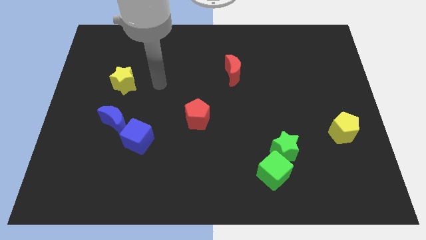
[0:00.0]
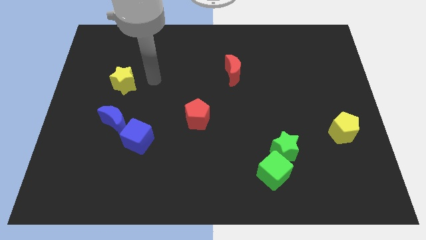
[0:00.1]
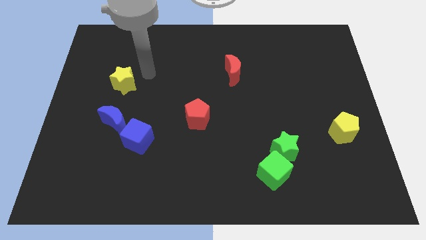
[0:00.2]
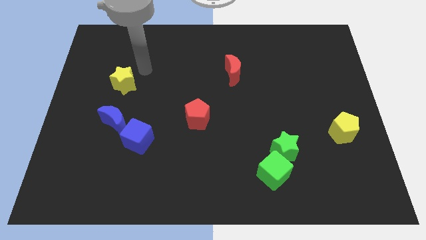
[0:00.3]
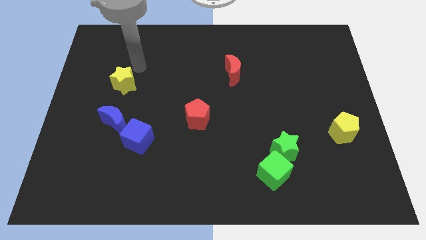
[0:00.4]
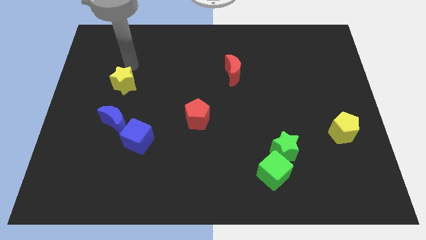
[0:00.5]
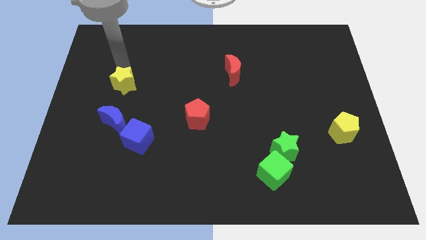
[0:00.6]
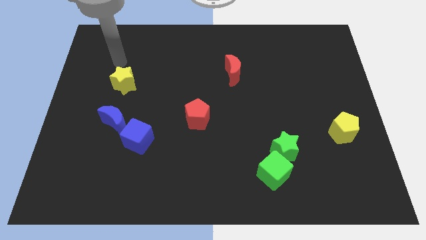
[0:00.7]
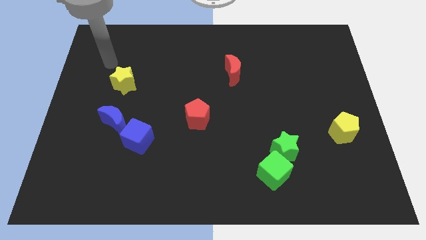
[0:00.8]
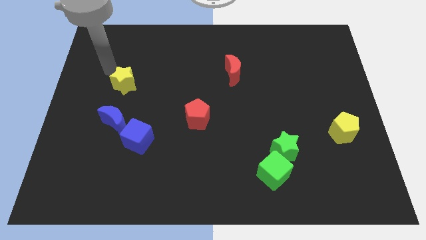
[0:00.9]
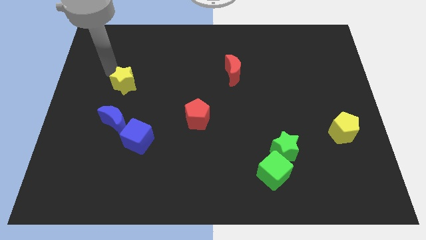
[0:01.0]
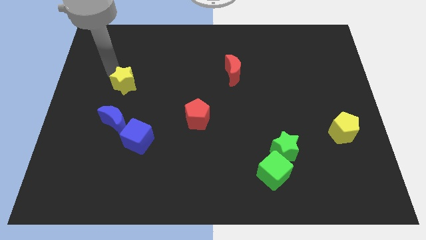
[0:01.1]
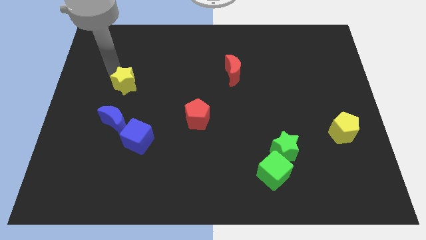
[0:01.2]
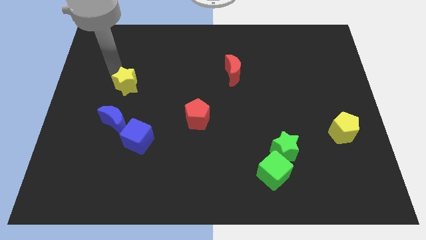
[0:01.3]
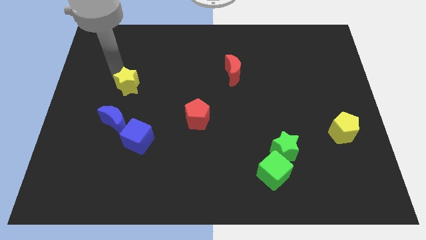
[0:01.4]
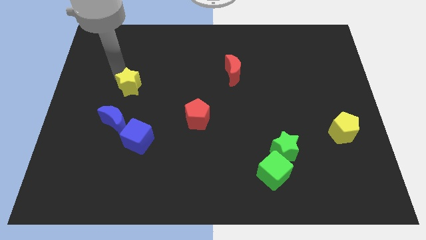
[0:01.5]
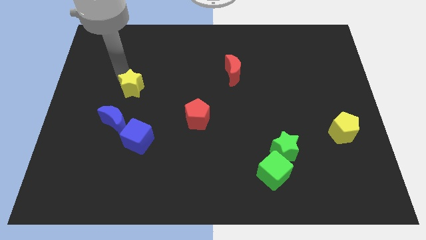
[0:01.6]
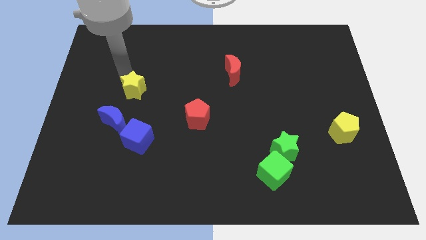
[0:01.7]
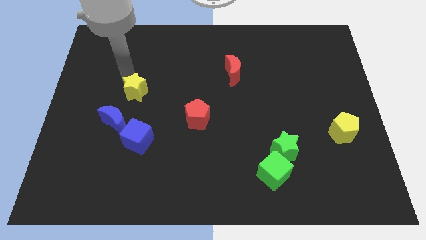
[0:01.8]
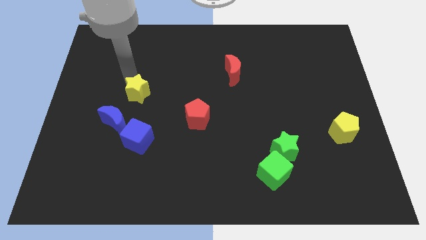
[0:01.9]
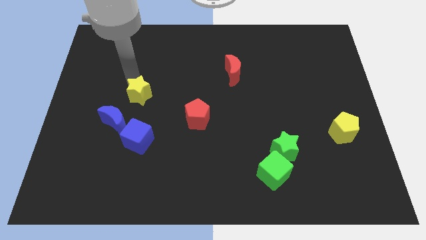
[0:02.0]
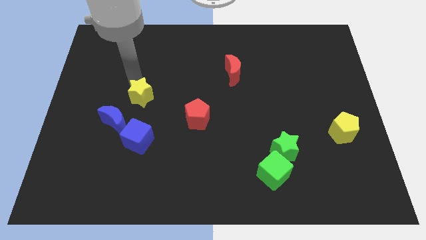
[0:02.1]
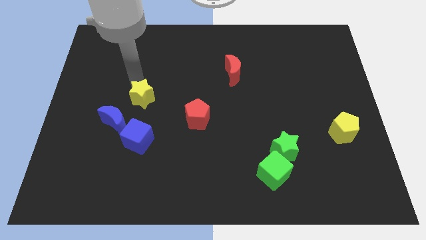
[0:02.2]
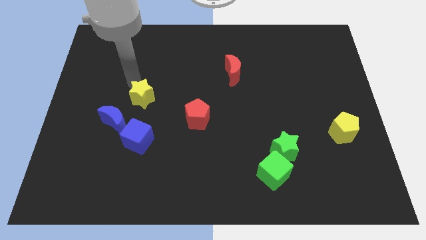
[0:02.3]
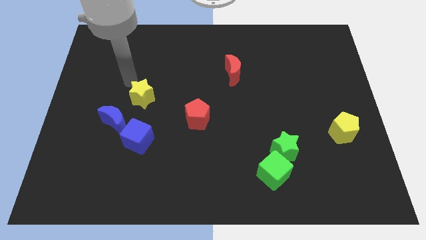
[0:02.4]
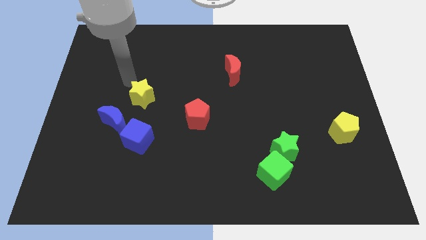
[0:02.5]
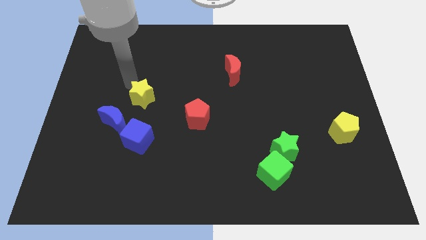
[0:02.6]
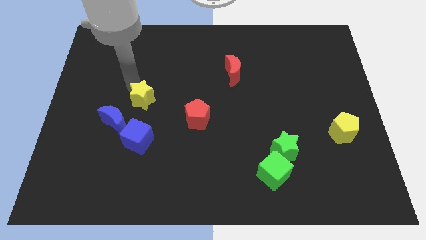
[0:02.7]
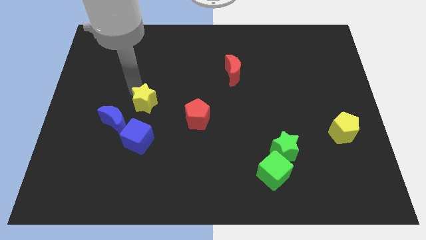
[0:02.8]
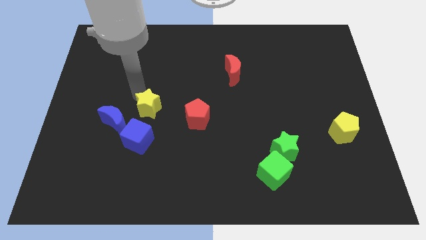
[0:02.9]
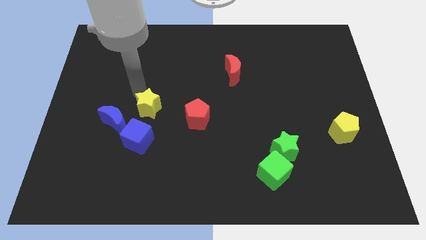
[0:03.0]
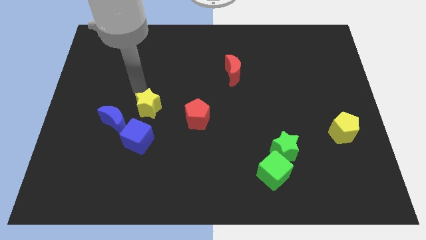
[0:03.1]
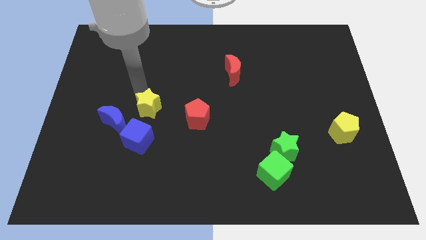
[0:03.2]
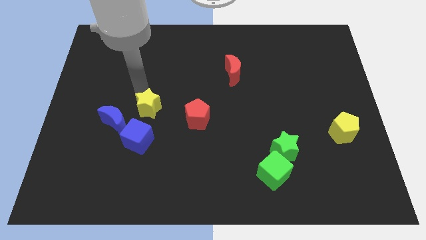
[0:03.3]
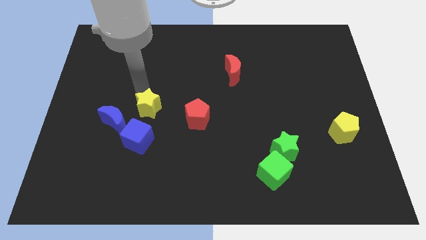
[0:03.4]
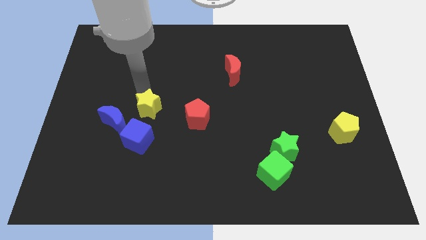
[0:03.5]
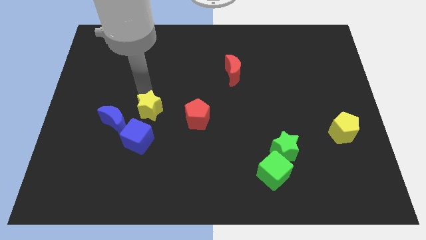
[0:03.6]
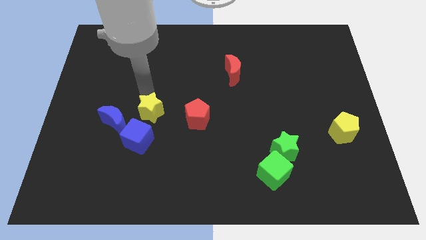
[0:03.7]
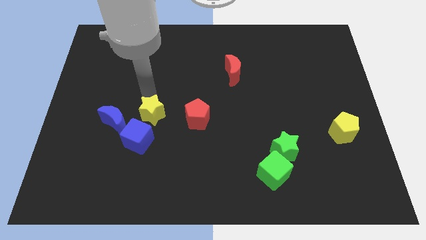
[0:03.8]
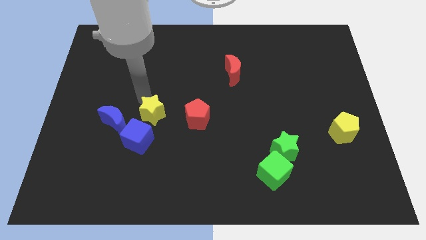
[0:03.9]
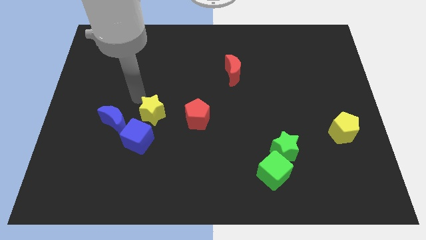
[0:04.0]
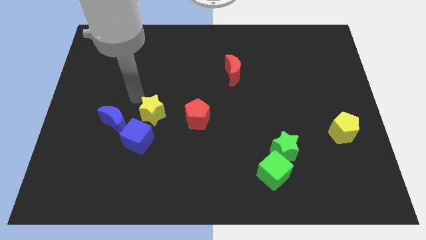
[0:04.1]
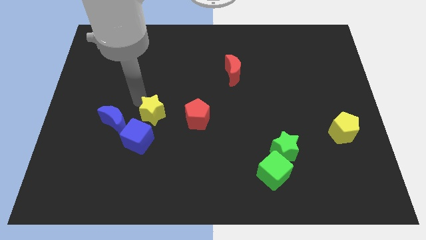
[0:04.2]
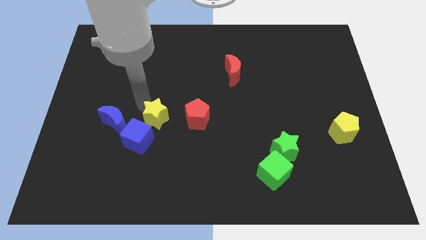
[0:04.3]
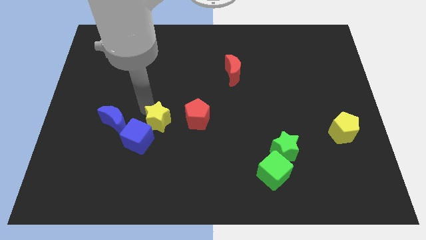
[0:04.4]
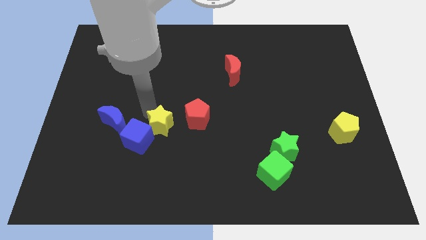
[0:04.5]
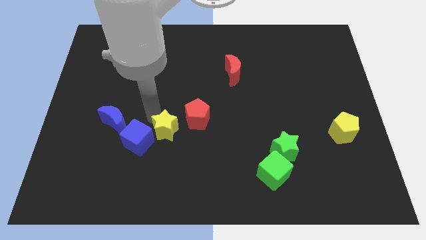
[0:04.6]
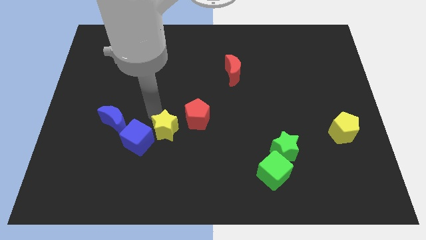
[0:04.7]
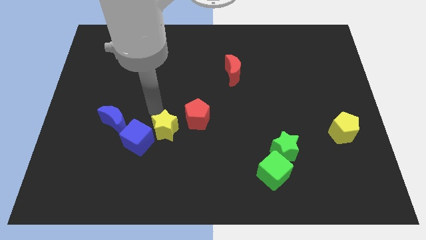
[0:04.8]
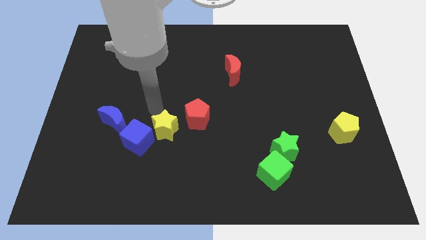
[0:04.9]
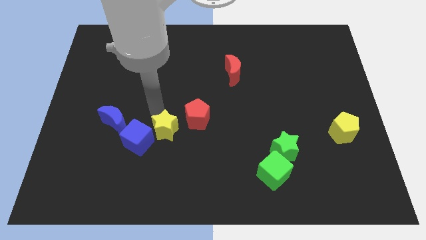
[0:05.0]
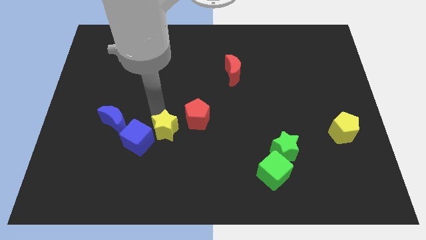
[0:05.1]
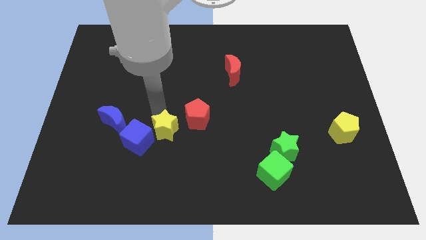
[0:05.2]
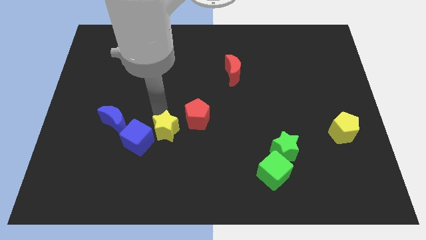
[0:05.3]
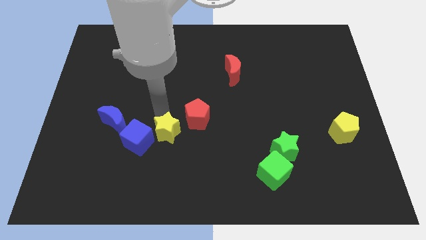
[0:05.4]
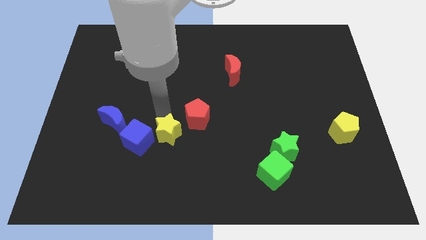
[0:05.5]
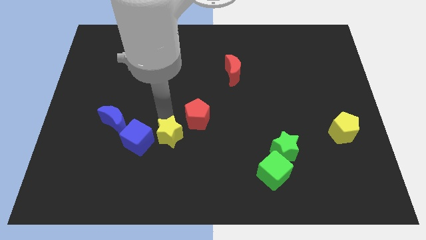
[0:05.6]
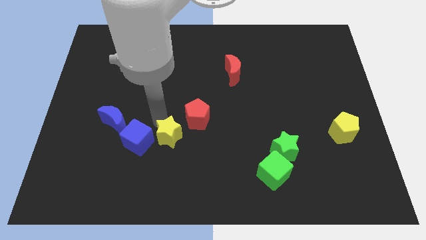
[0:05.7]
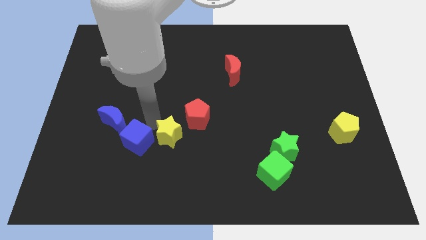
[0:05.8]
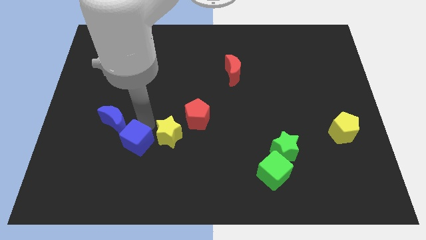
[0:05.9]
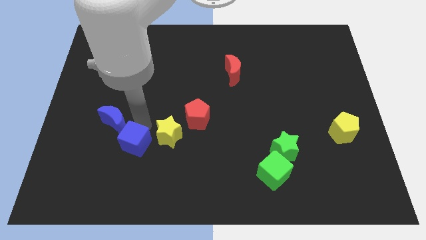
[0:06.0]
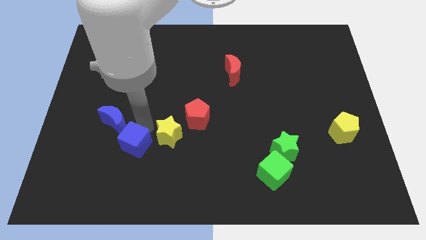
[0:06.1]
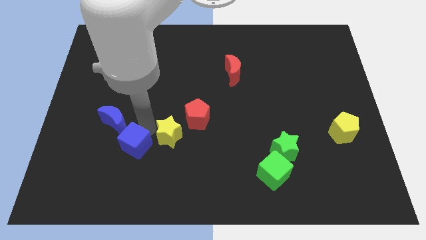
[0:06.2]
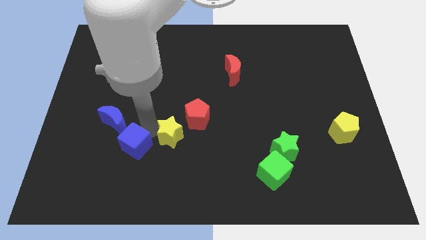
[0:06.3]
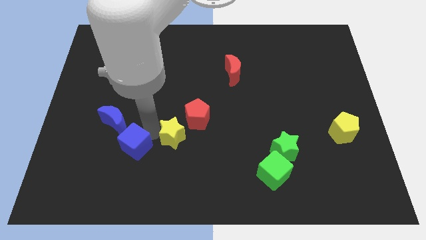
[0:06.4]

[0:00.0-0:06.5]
push the yellow star down and then to the right

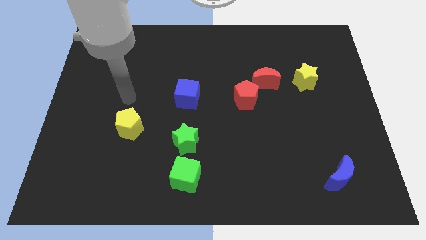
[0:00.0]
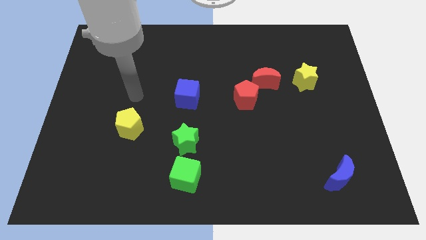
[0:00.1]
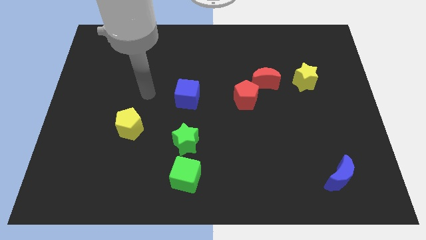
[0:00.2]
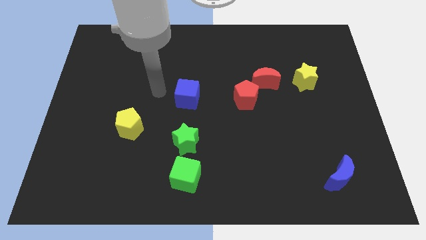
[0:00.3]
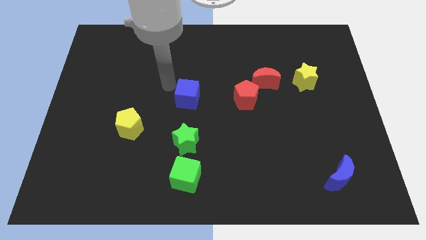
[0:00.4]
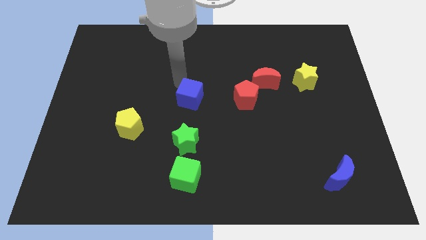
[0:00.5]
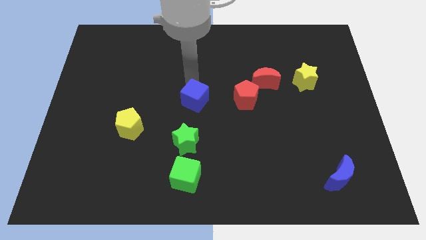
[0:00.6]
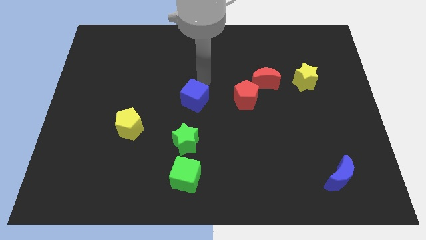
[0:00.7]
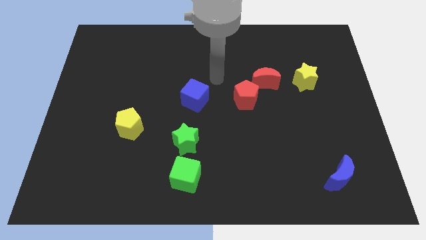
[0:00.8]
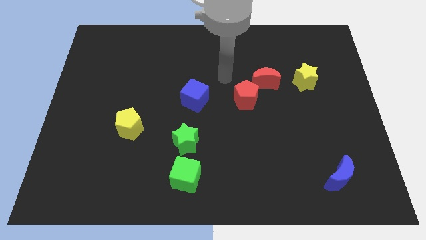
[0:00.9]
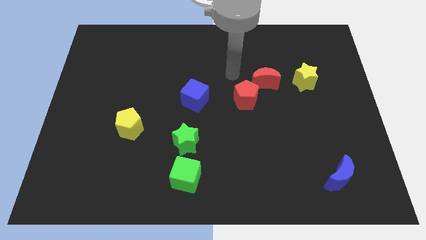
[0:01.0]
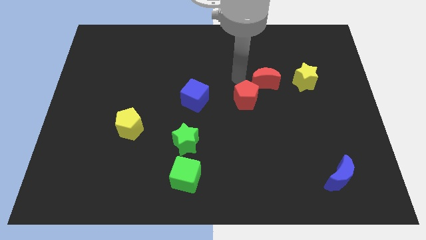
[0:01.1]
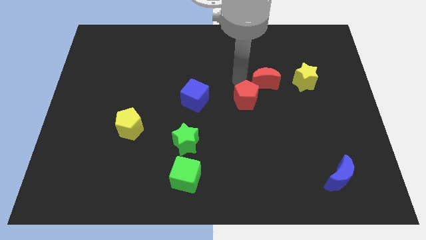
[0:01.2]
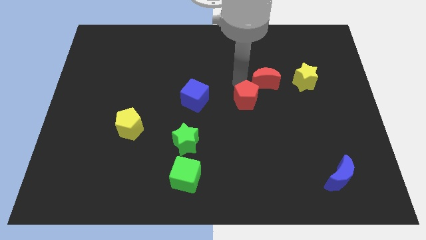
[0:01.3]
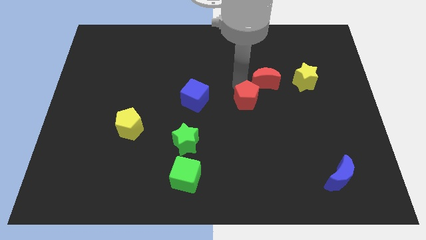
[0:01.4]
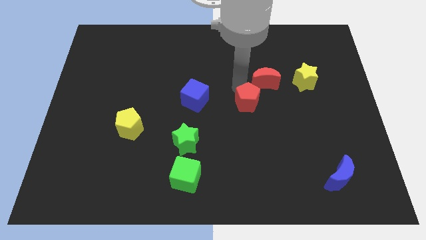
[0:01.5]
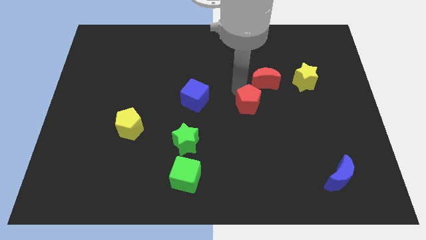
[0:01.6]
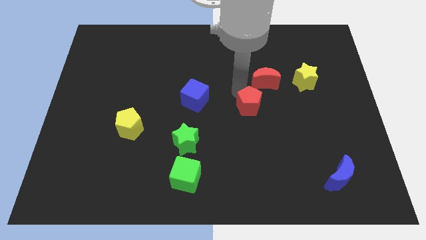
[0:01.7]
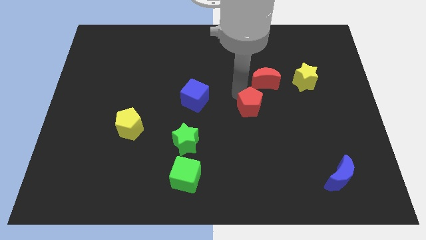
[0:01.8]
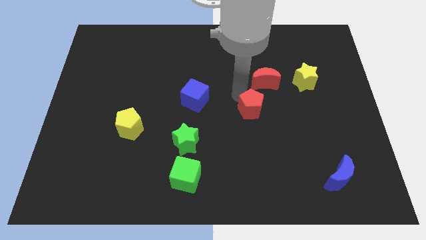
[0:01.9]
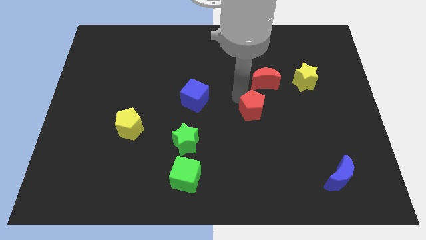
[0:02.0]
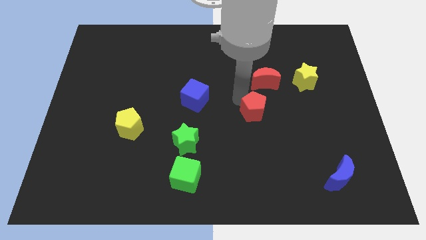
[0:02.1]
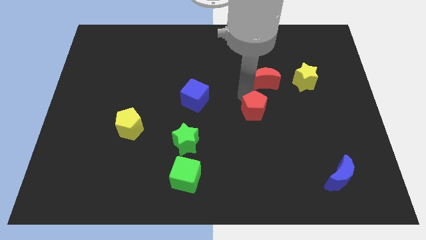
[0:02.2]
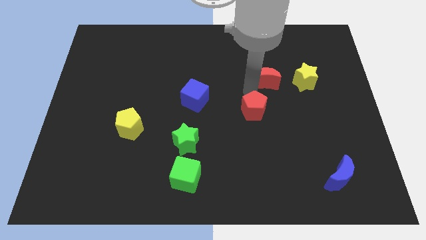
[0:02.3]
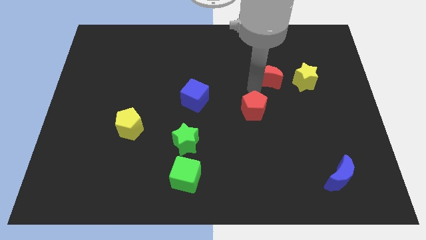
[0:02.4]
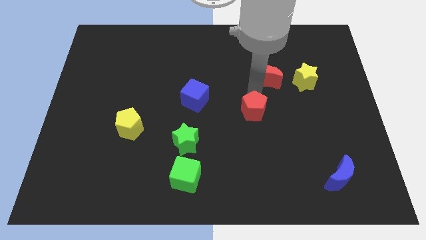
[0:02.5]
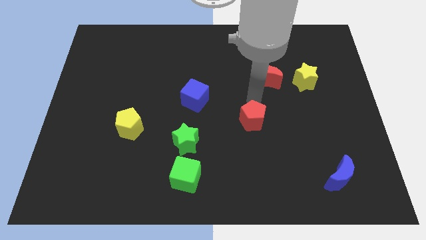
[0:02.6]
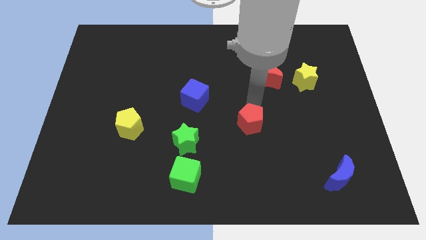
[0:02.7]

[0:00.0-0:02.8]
push the red pentagon a bit downwards
